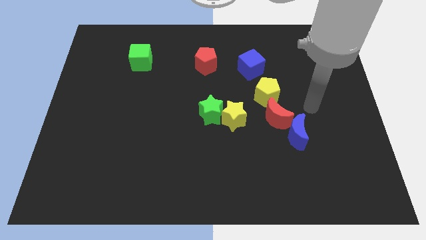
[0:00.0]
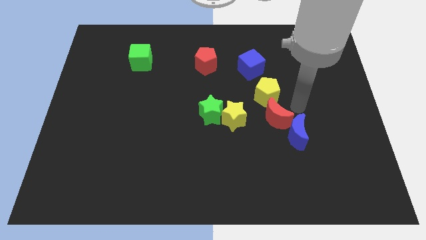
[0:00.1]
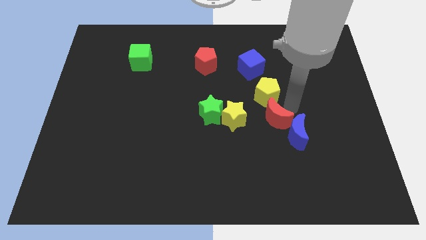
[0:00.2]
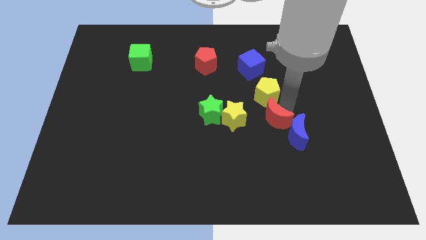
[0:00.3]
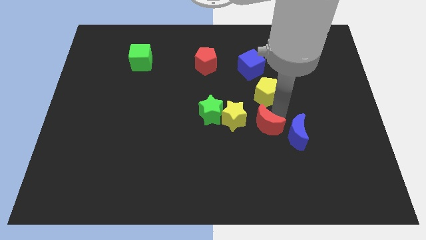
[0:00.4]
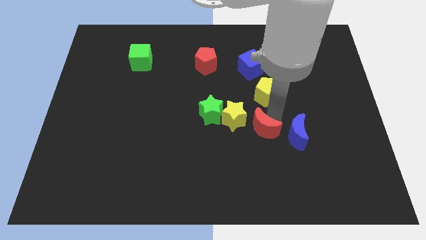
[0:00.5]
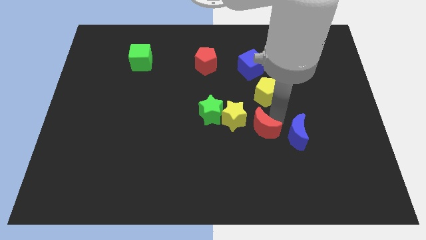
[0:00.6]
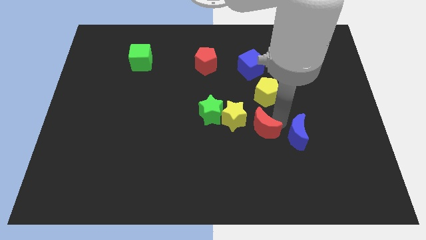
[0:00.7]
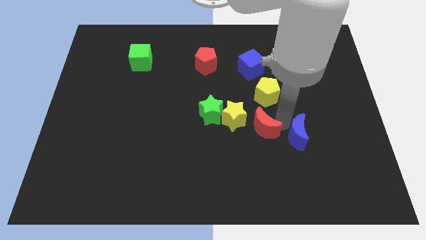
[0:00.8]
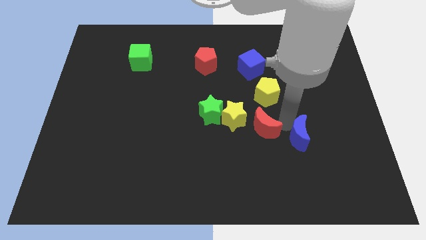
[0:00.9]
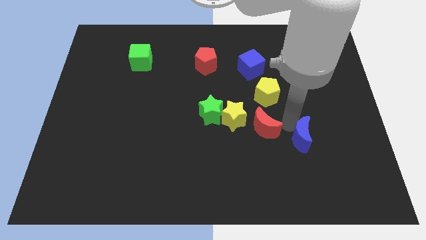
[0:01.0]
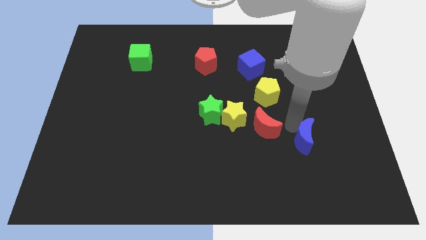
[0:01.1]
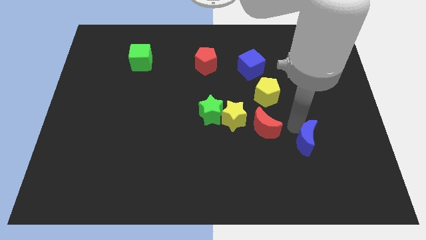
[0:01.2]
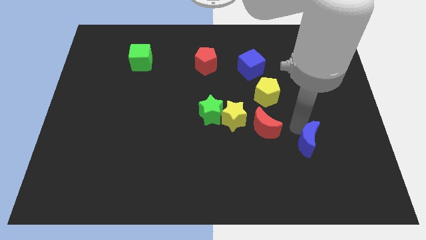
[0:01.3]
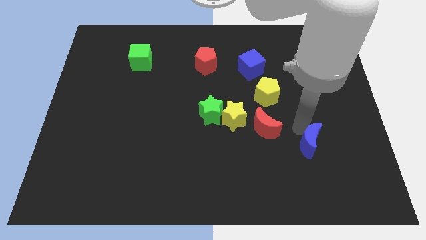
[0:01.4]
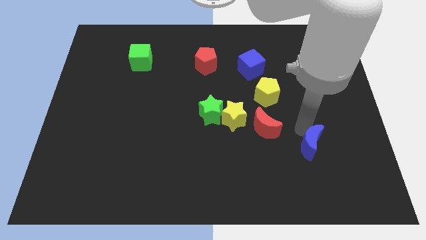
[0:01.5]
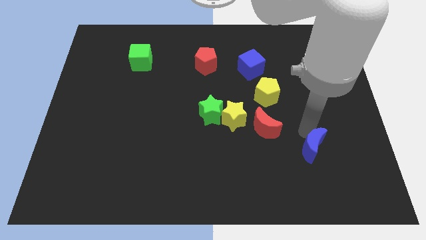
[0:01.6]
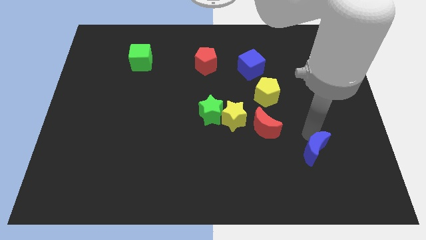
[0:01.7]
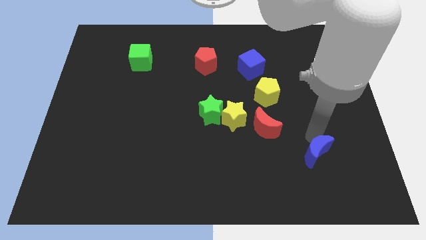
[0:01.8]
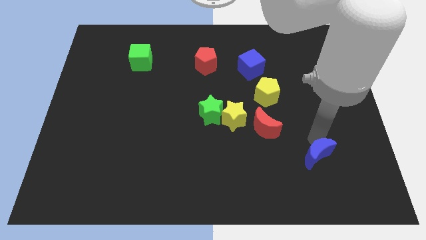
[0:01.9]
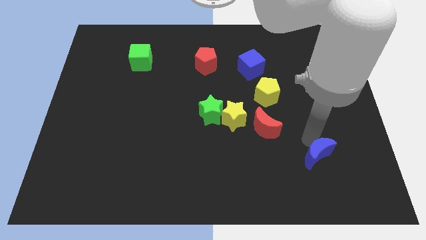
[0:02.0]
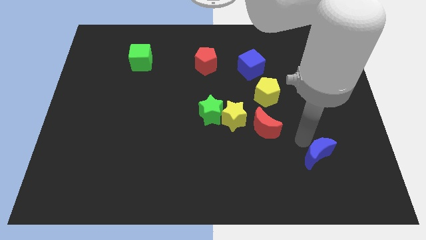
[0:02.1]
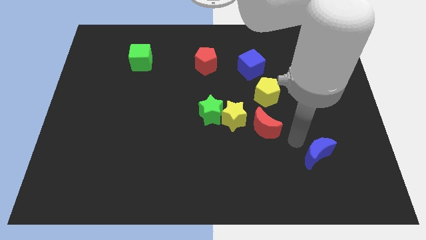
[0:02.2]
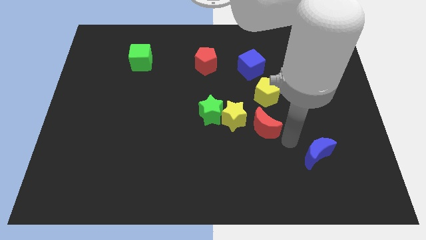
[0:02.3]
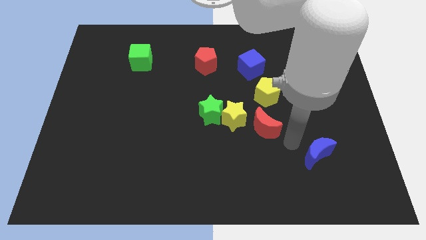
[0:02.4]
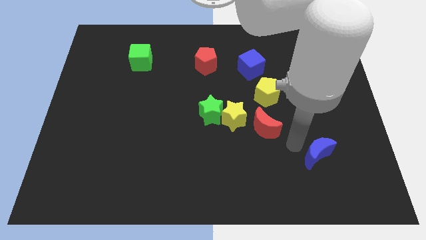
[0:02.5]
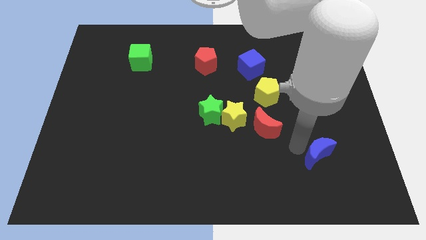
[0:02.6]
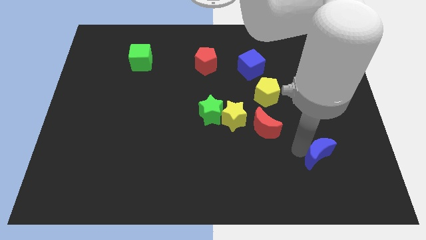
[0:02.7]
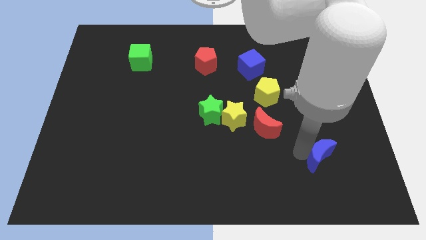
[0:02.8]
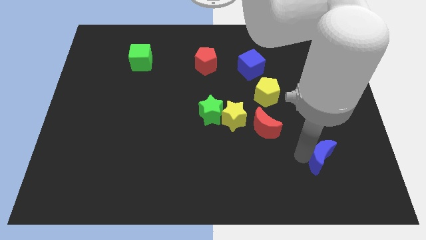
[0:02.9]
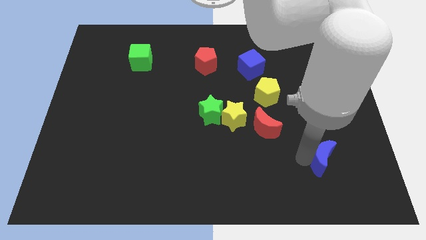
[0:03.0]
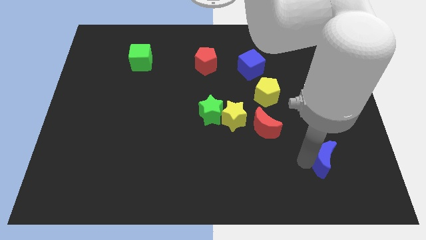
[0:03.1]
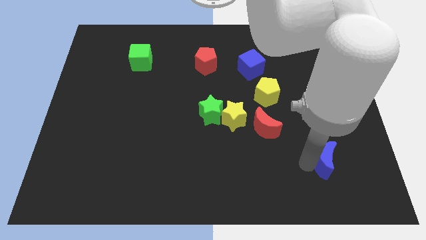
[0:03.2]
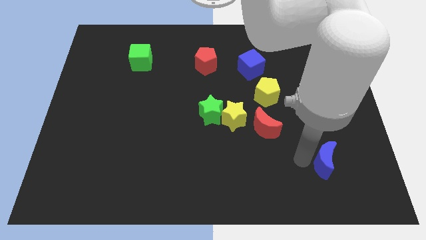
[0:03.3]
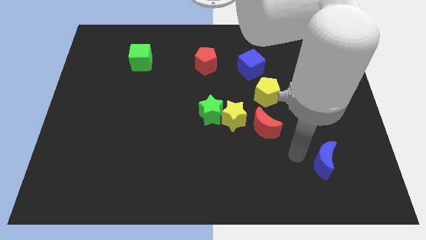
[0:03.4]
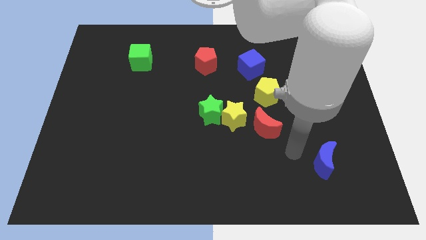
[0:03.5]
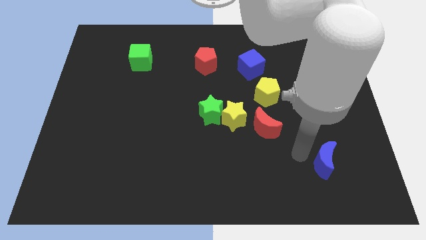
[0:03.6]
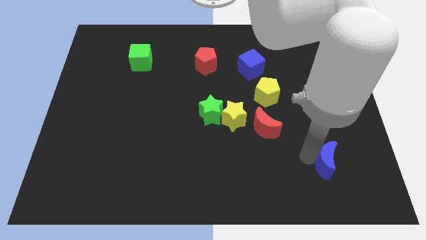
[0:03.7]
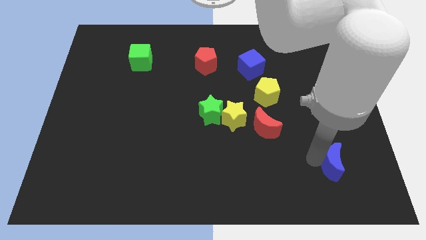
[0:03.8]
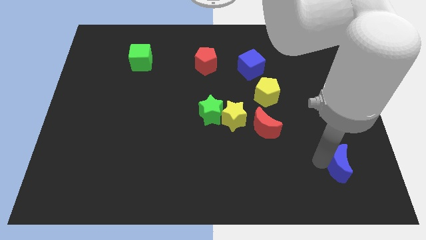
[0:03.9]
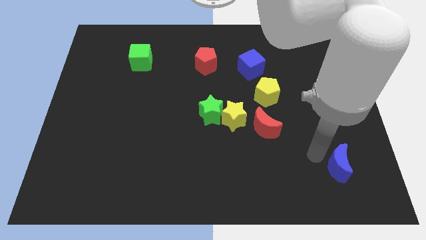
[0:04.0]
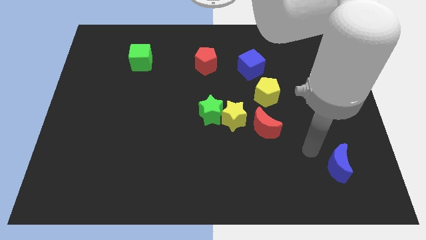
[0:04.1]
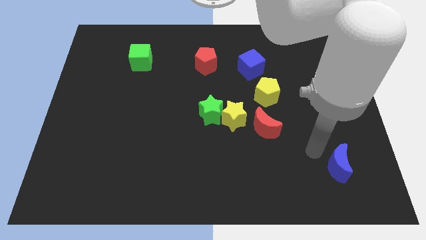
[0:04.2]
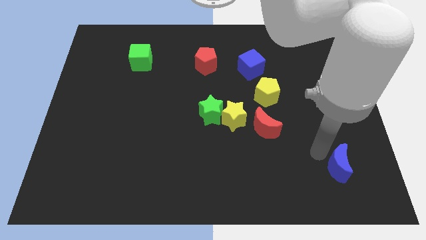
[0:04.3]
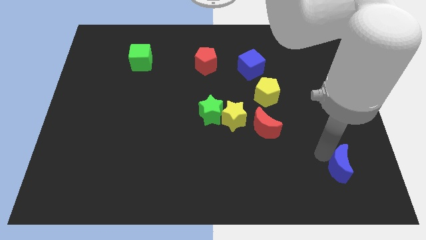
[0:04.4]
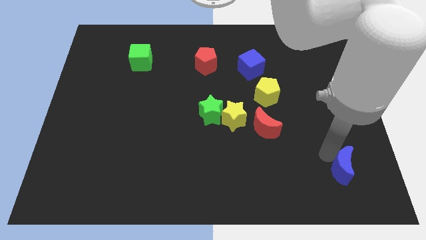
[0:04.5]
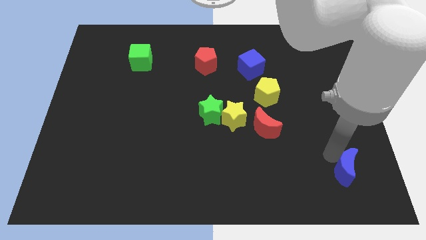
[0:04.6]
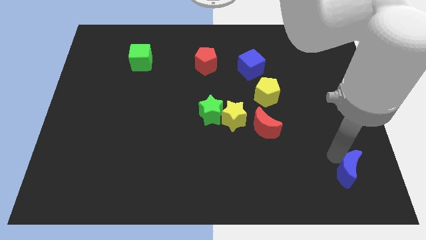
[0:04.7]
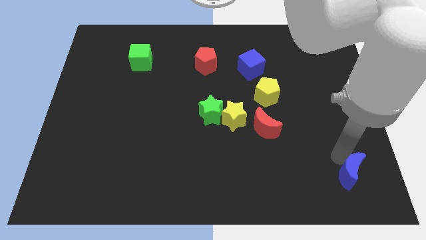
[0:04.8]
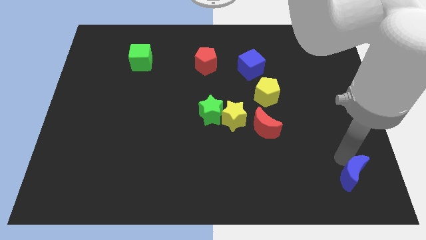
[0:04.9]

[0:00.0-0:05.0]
push the blue moon to the lower right corner
